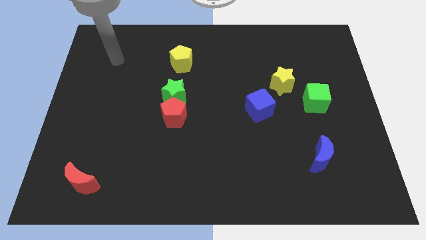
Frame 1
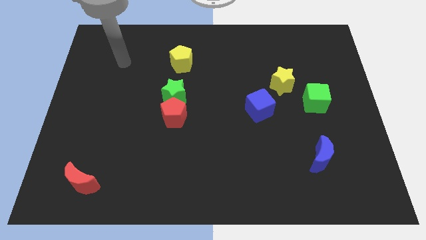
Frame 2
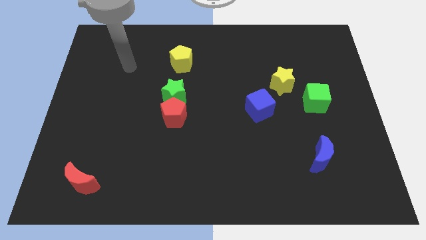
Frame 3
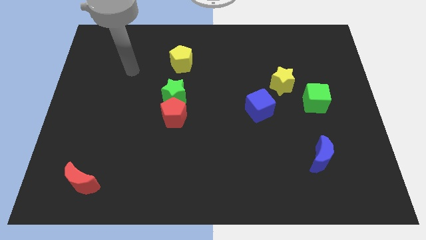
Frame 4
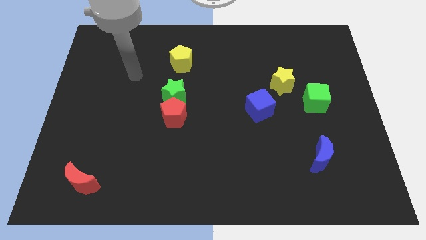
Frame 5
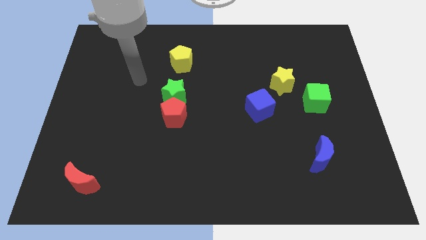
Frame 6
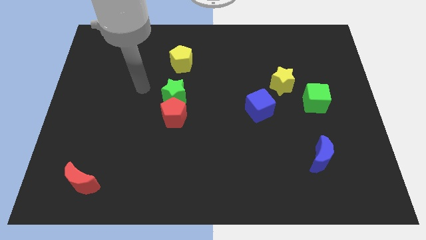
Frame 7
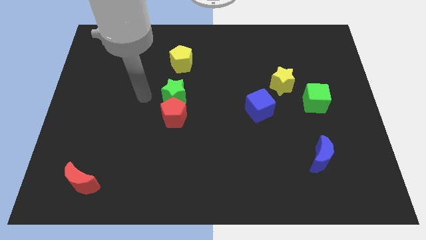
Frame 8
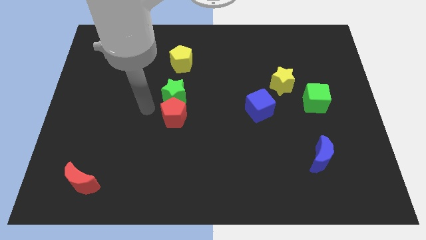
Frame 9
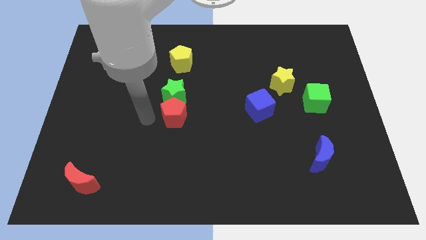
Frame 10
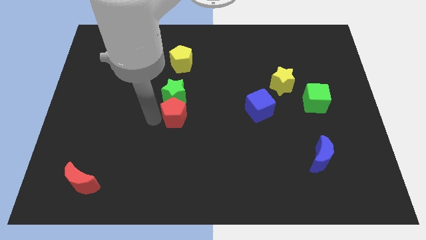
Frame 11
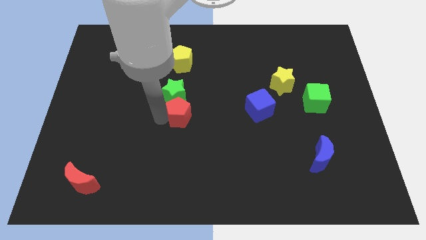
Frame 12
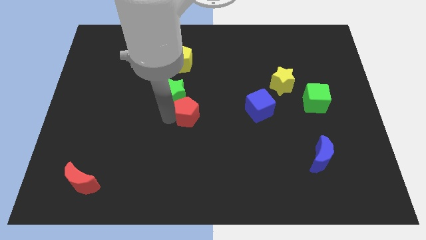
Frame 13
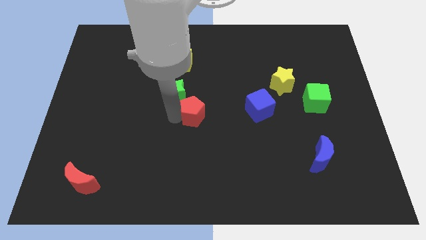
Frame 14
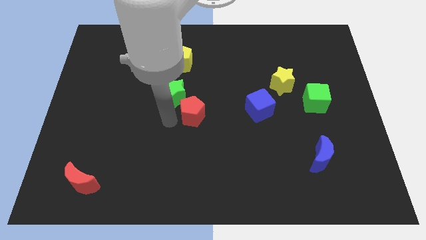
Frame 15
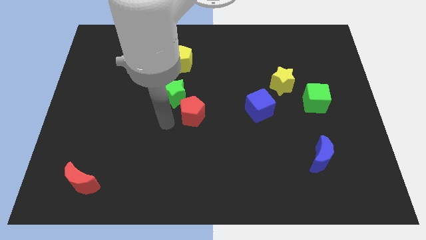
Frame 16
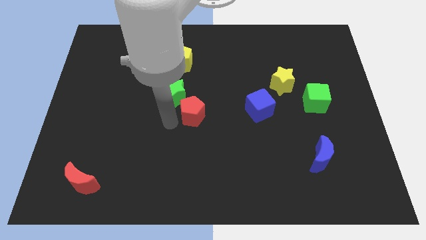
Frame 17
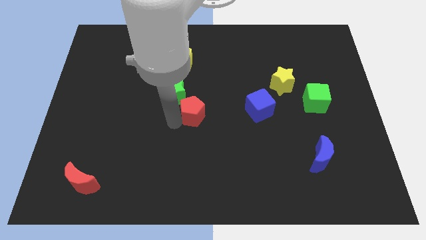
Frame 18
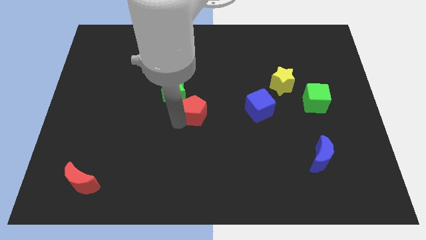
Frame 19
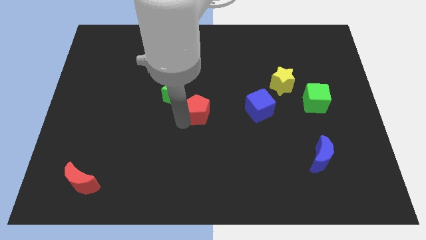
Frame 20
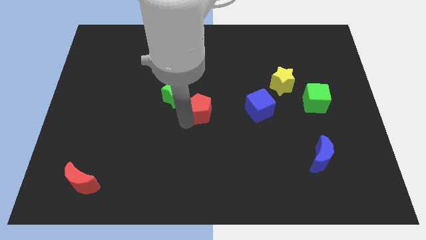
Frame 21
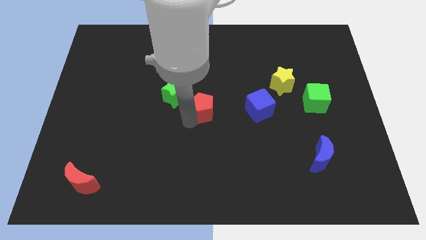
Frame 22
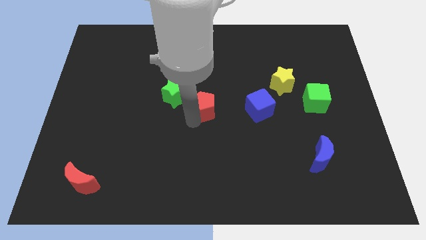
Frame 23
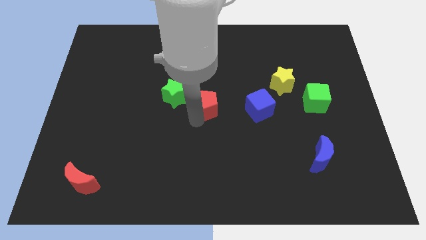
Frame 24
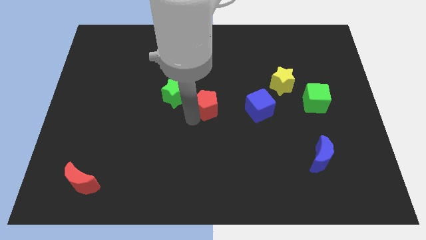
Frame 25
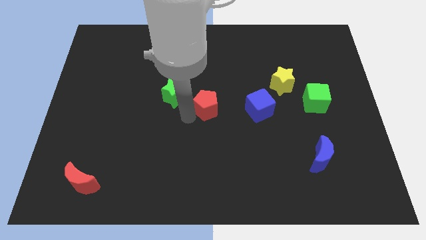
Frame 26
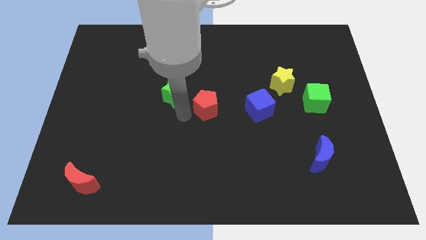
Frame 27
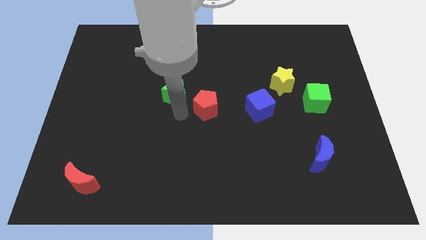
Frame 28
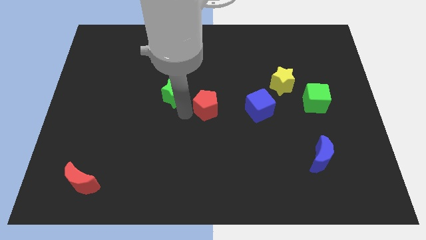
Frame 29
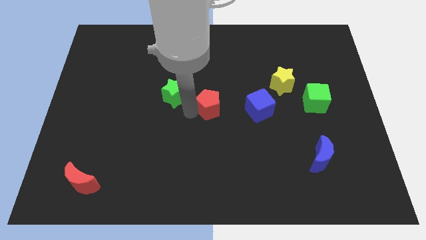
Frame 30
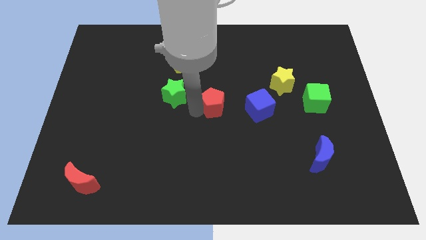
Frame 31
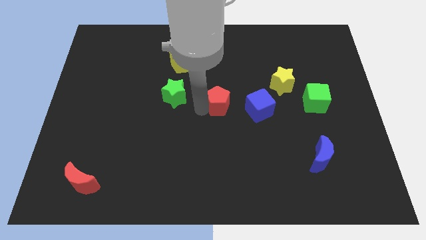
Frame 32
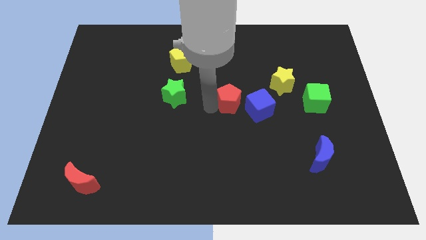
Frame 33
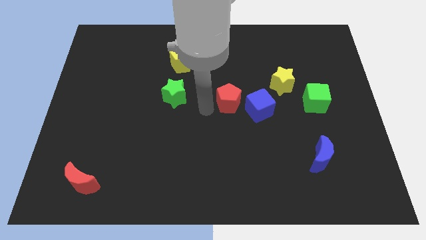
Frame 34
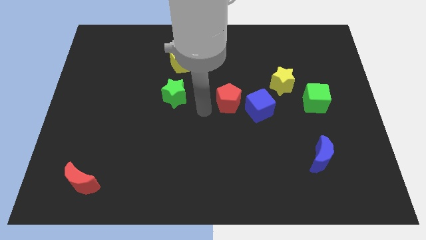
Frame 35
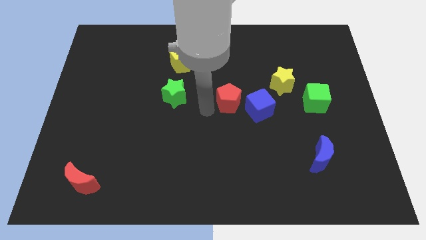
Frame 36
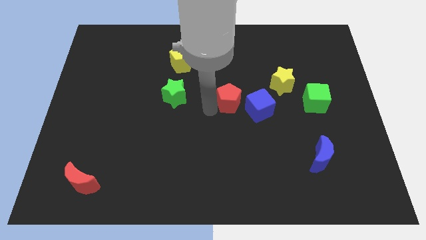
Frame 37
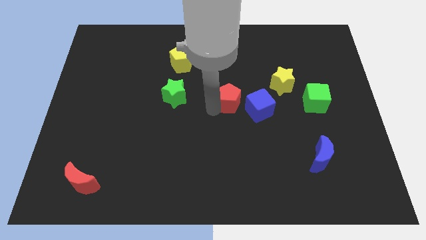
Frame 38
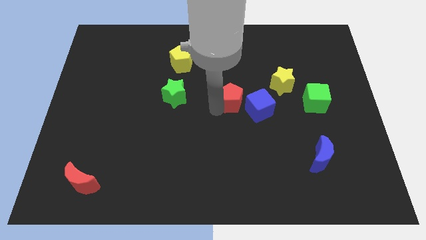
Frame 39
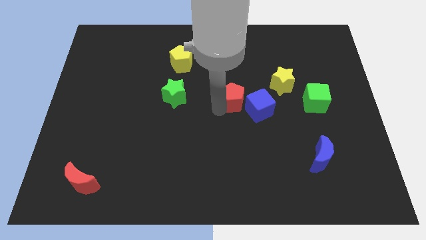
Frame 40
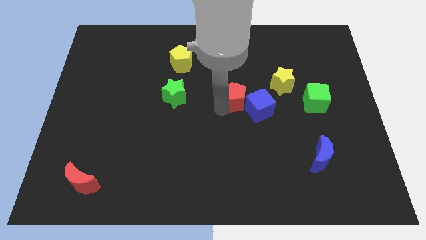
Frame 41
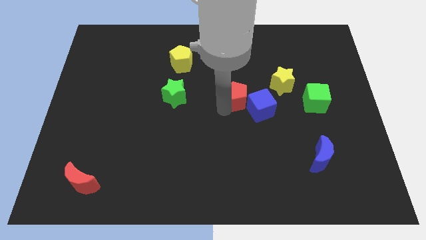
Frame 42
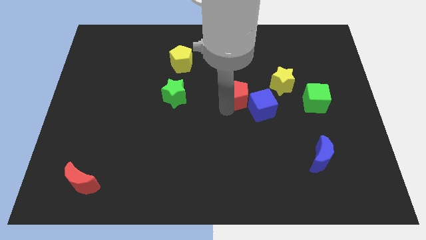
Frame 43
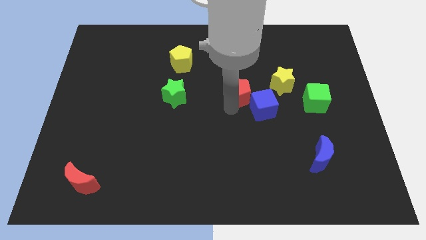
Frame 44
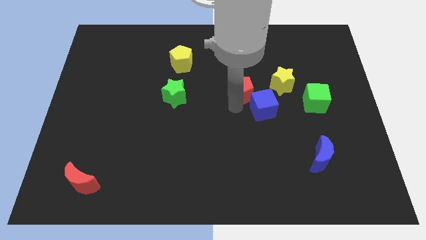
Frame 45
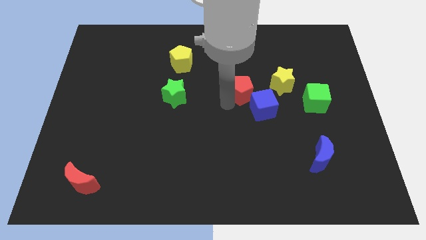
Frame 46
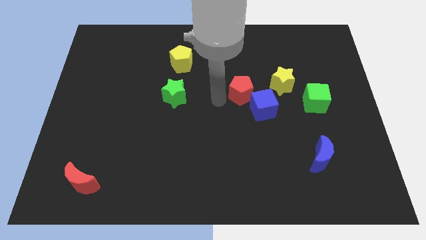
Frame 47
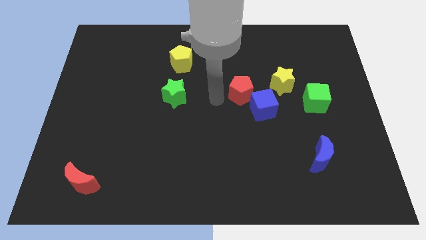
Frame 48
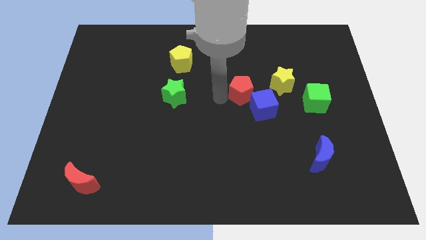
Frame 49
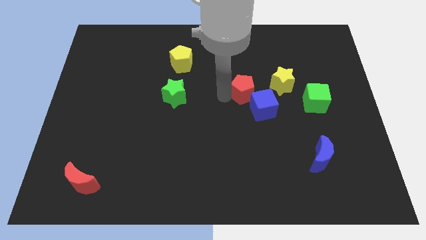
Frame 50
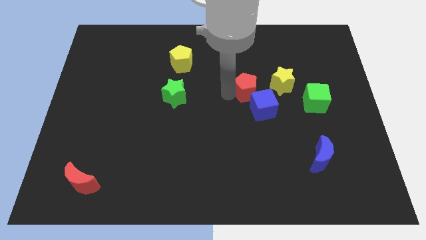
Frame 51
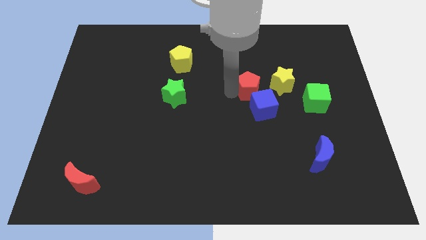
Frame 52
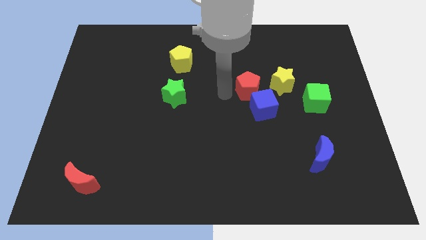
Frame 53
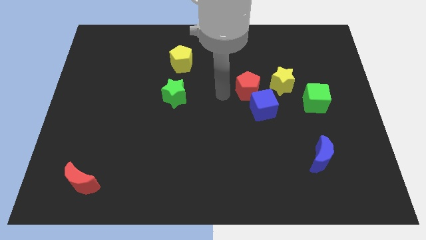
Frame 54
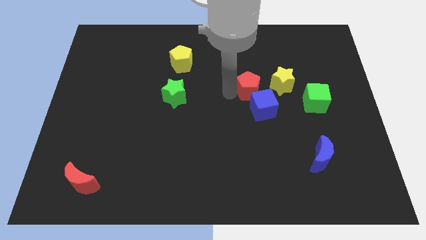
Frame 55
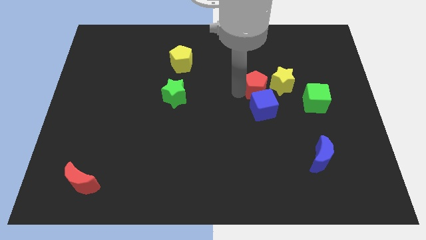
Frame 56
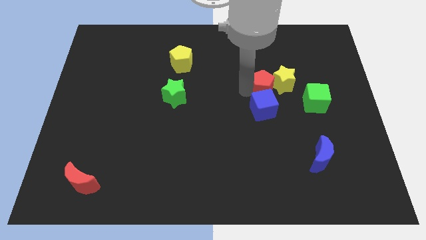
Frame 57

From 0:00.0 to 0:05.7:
push the red pentagon towards the yellow star

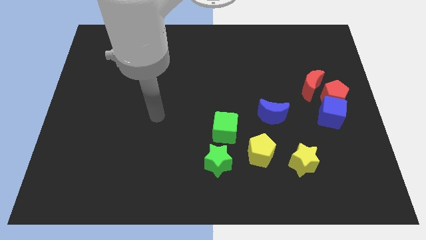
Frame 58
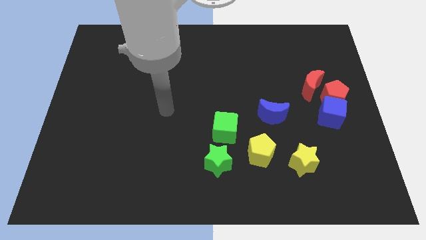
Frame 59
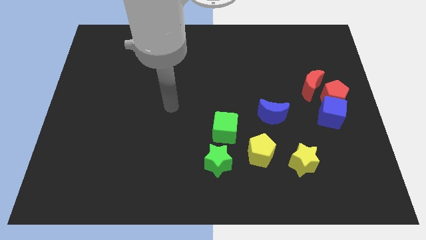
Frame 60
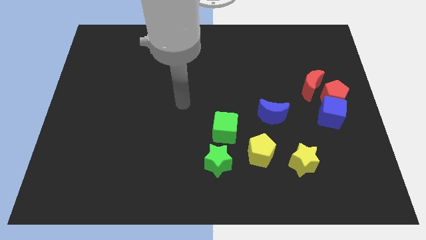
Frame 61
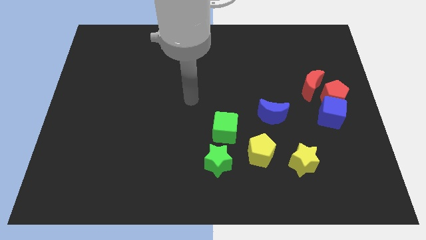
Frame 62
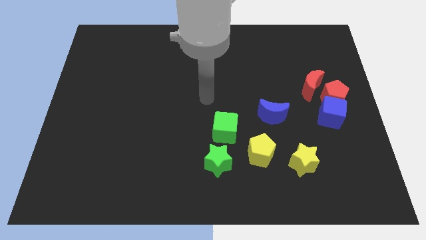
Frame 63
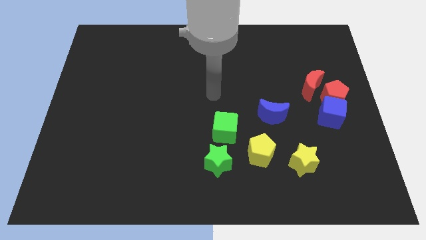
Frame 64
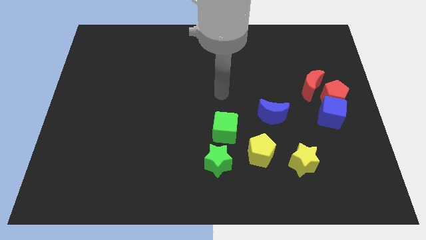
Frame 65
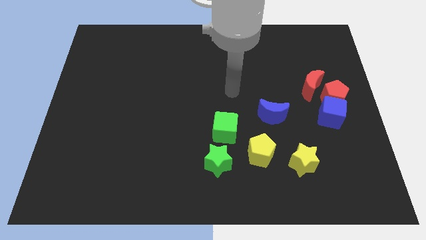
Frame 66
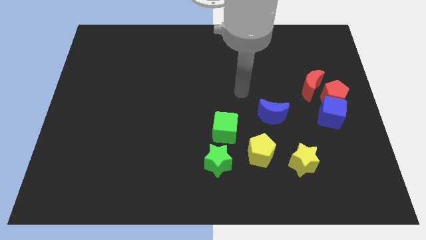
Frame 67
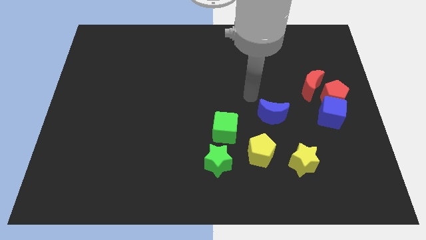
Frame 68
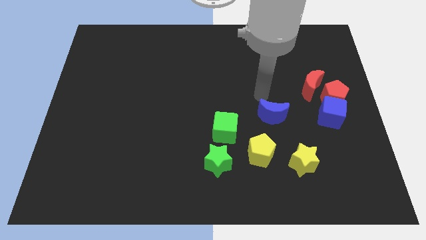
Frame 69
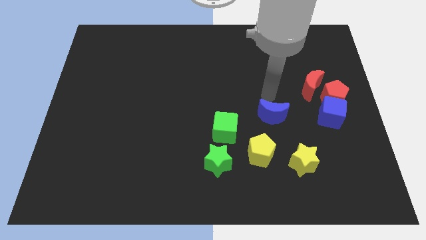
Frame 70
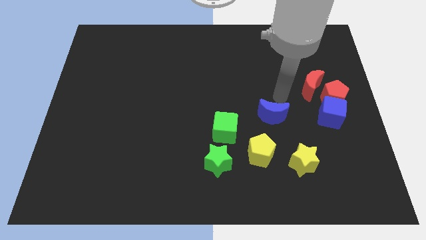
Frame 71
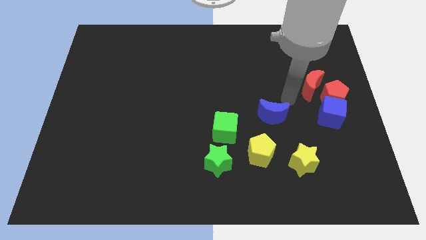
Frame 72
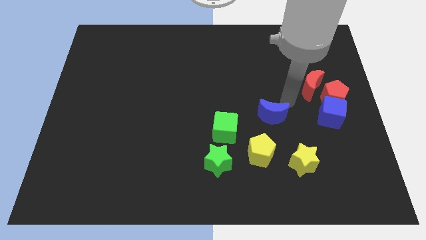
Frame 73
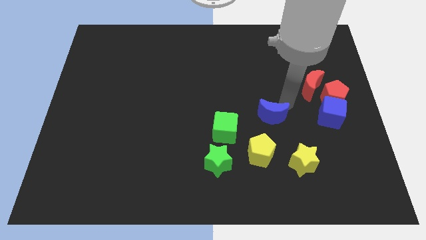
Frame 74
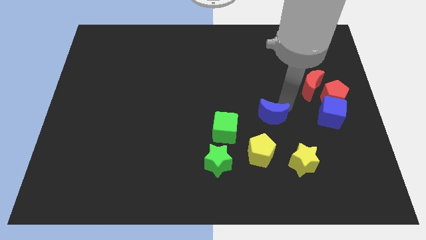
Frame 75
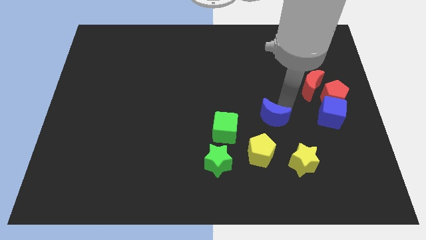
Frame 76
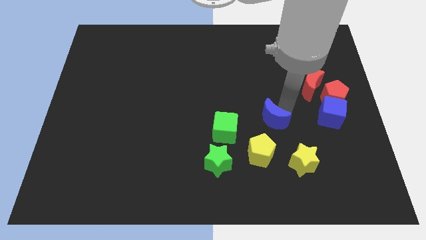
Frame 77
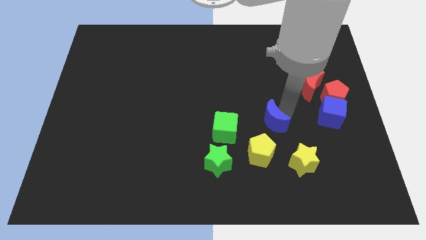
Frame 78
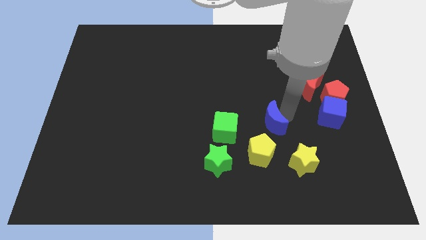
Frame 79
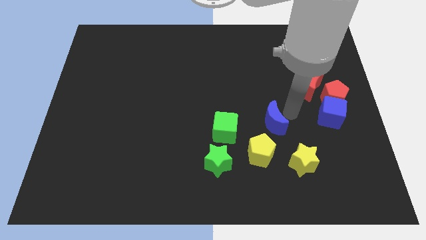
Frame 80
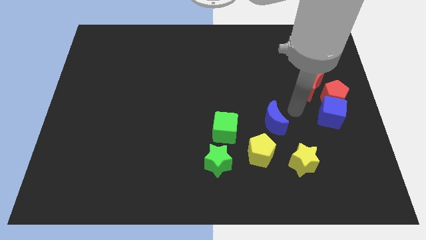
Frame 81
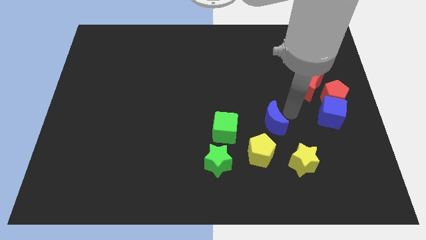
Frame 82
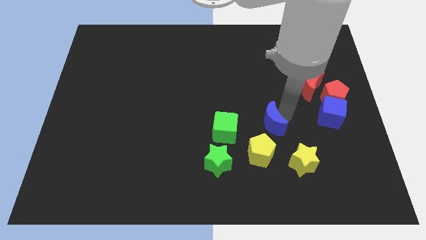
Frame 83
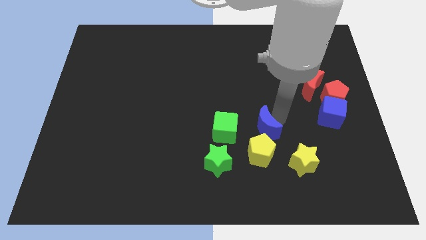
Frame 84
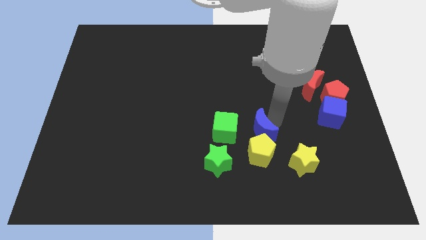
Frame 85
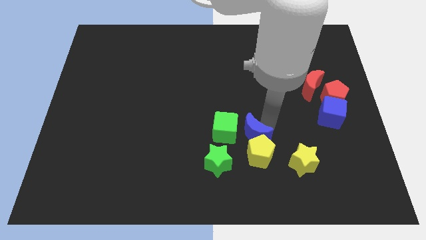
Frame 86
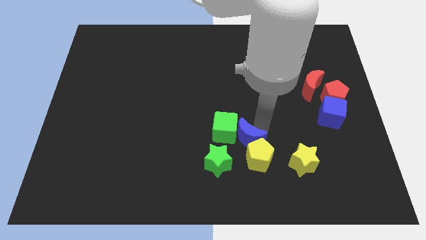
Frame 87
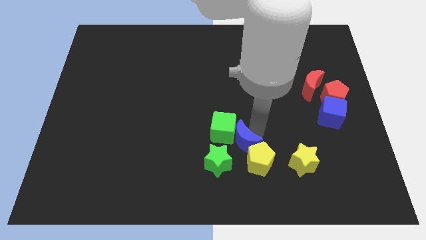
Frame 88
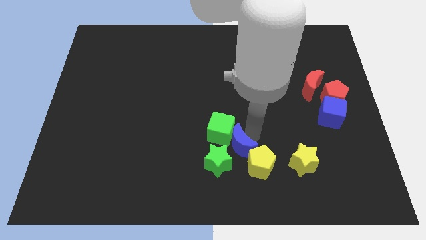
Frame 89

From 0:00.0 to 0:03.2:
put the blue moon close to the green star
